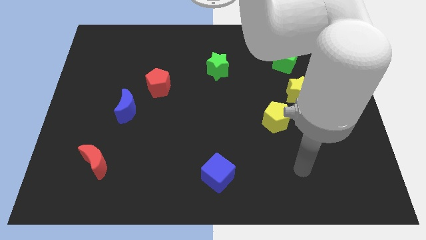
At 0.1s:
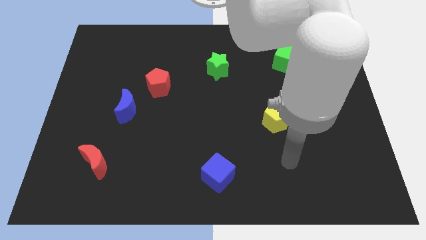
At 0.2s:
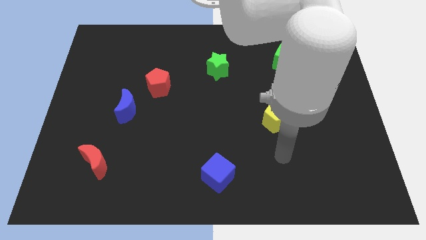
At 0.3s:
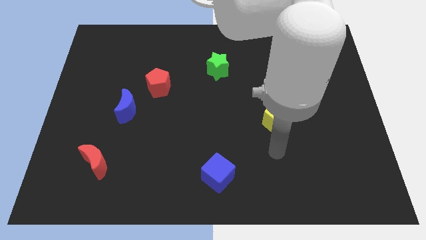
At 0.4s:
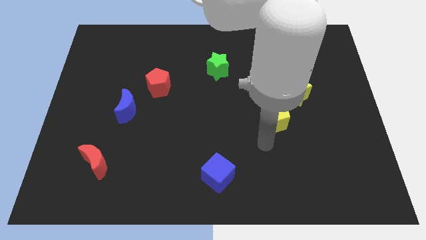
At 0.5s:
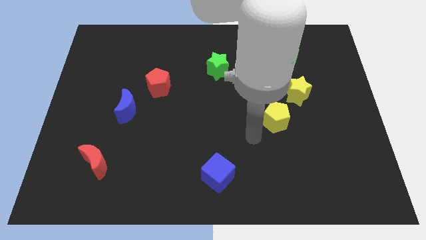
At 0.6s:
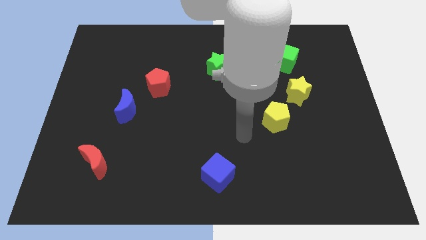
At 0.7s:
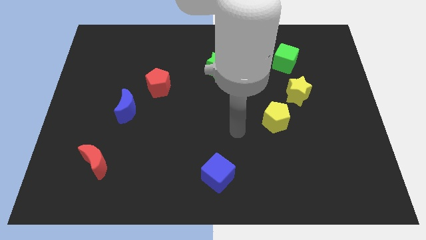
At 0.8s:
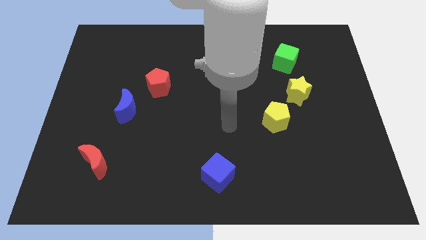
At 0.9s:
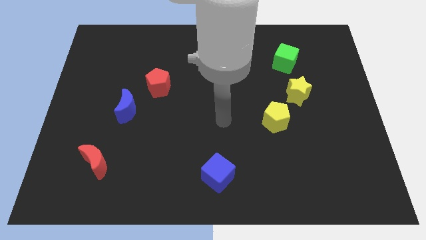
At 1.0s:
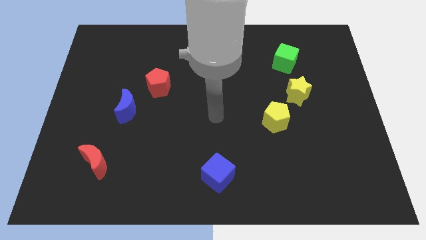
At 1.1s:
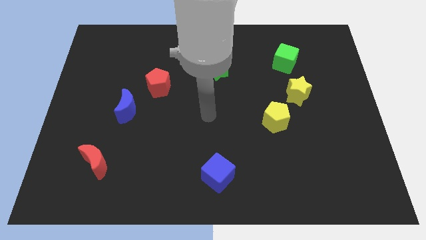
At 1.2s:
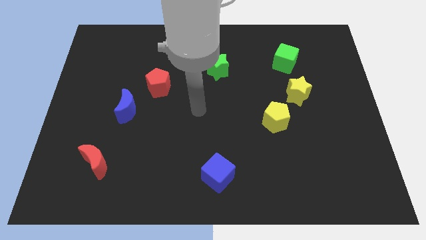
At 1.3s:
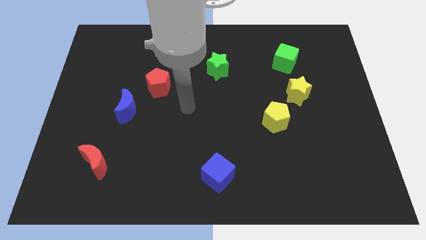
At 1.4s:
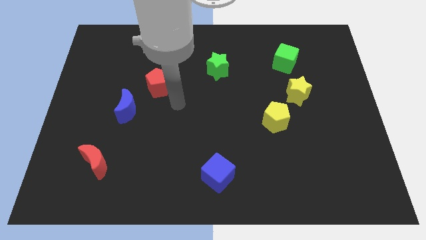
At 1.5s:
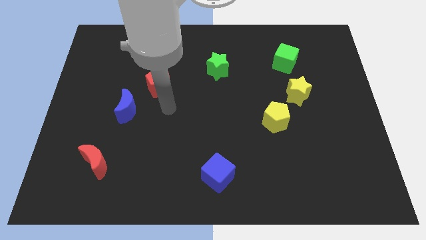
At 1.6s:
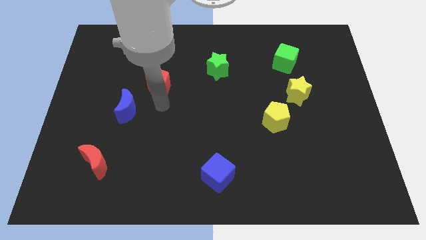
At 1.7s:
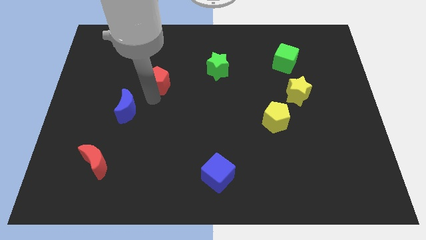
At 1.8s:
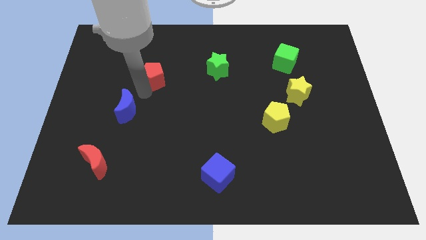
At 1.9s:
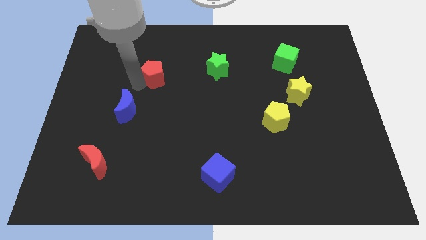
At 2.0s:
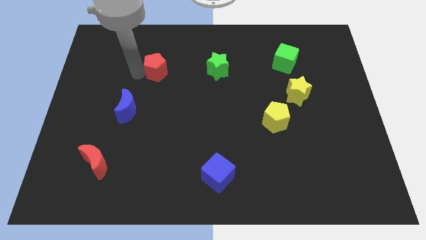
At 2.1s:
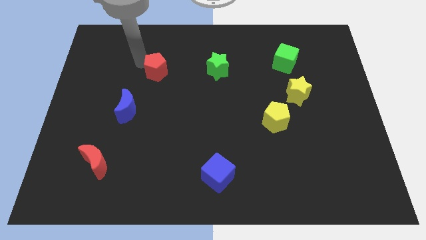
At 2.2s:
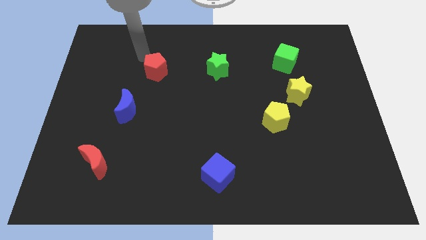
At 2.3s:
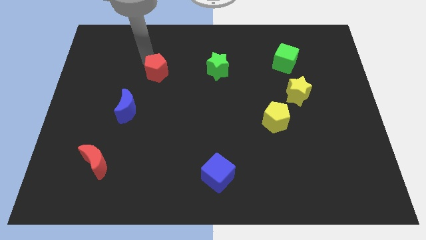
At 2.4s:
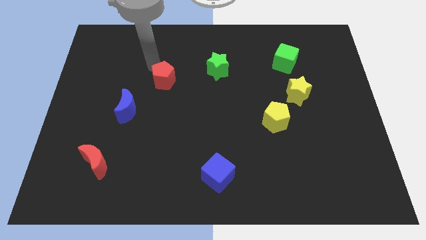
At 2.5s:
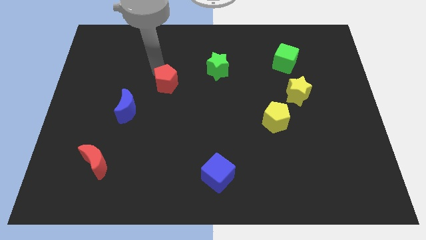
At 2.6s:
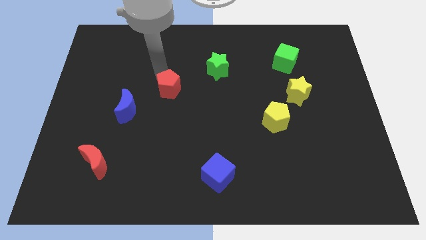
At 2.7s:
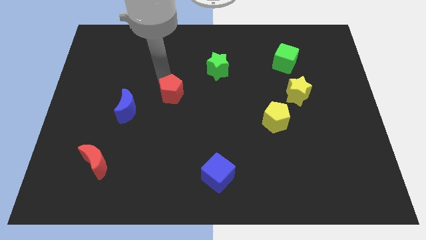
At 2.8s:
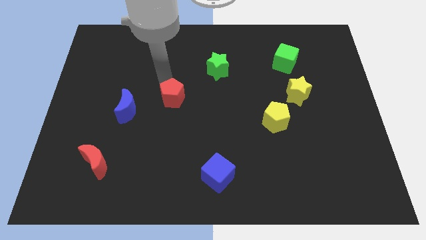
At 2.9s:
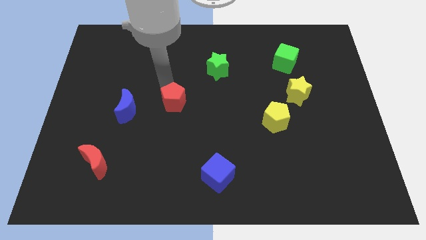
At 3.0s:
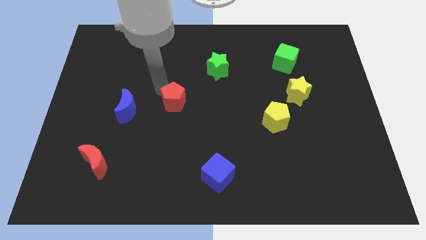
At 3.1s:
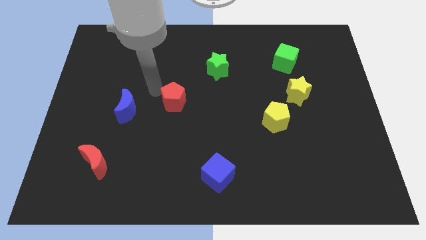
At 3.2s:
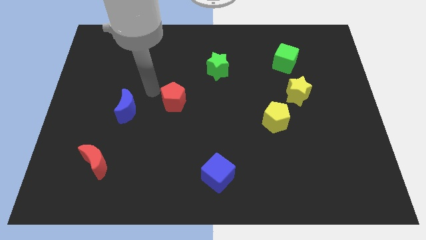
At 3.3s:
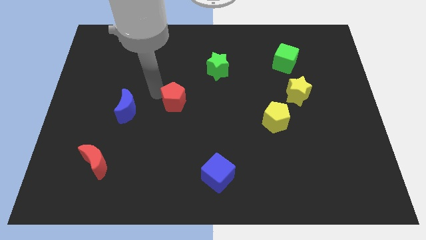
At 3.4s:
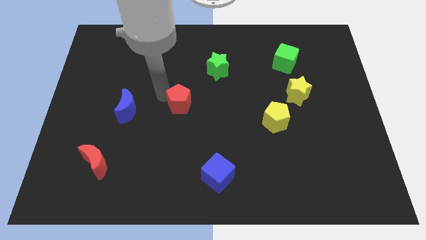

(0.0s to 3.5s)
slightly push the red pentagon diagonally downwards and right

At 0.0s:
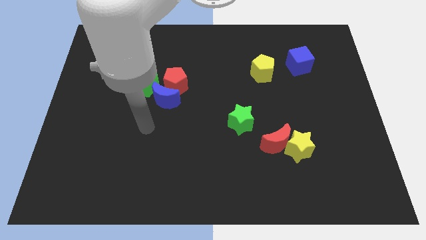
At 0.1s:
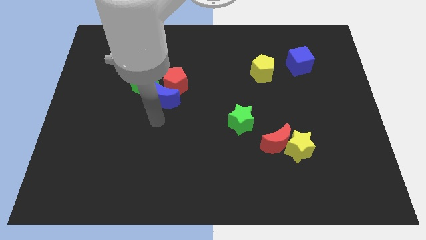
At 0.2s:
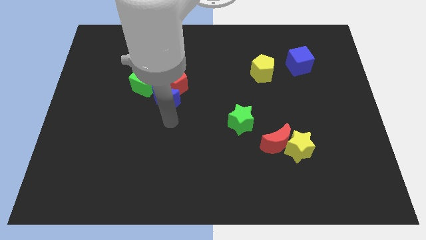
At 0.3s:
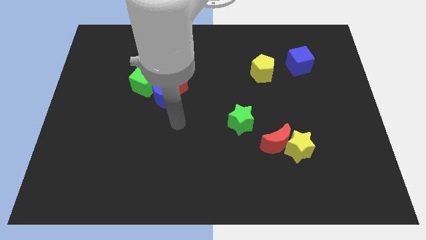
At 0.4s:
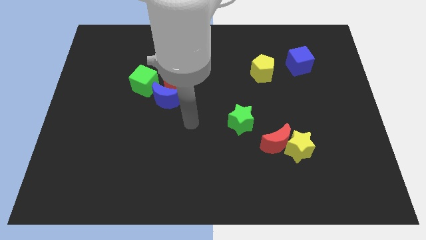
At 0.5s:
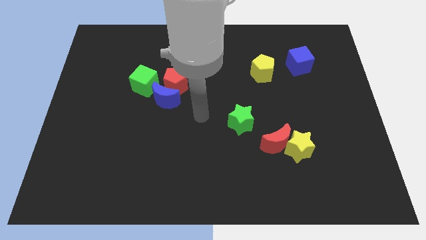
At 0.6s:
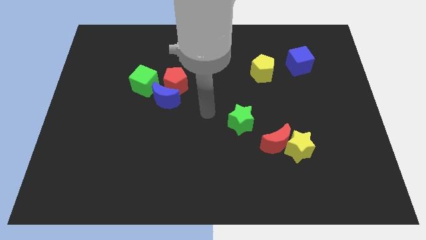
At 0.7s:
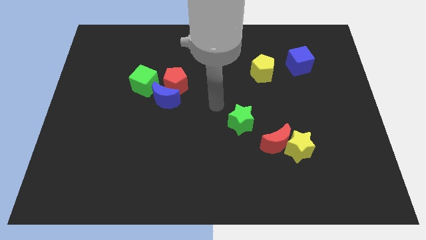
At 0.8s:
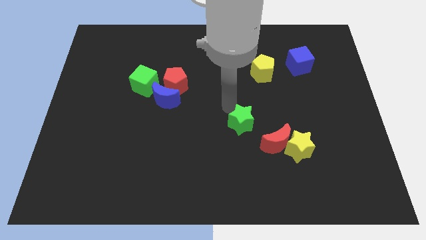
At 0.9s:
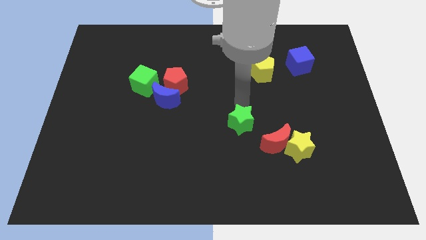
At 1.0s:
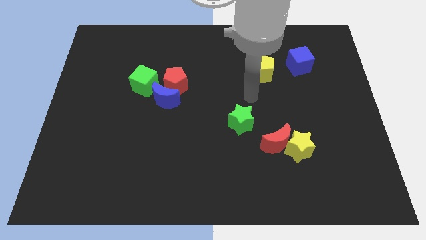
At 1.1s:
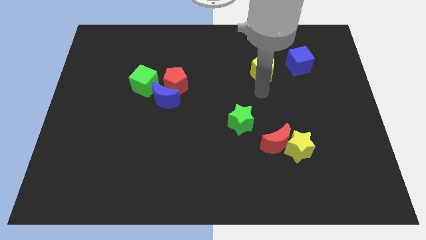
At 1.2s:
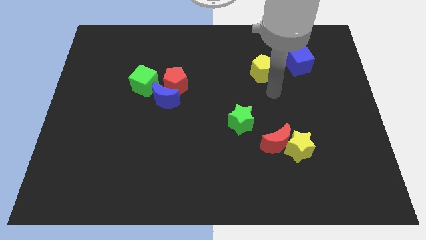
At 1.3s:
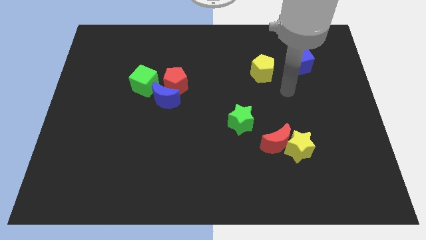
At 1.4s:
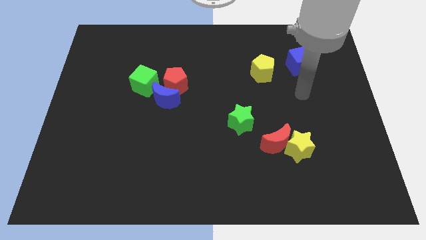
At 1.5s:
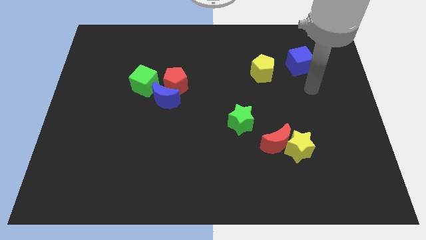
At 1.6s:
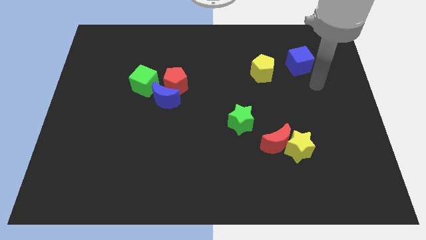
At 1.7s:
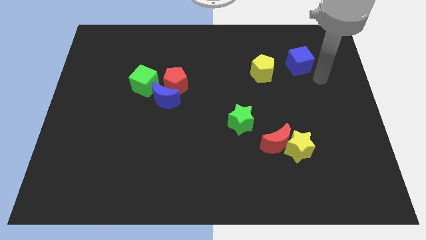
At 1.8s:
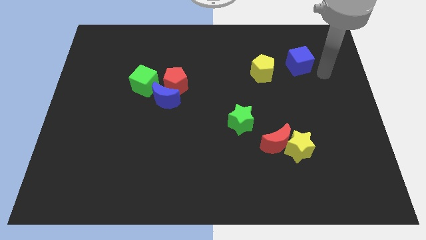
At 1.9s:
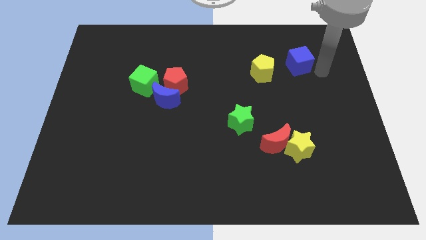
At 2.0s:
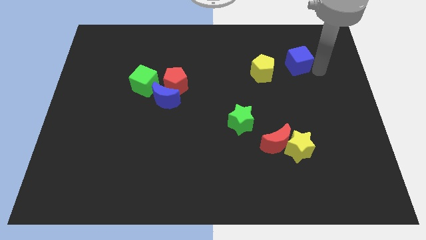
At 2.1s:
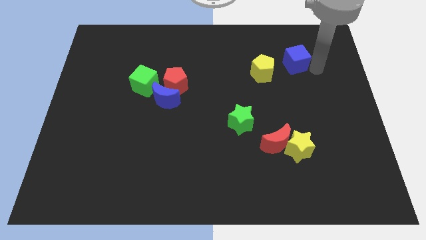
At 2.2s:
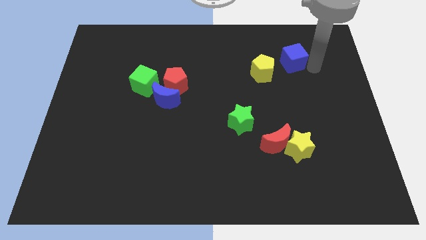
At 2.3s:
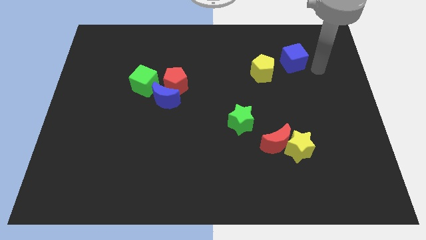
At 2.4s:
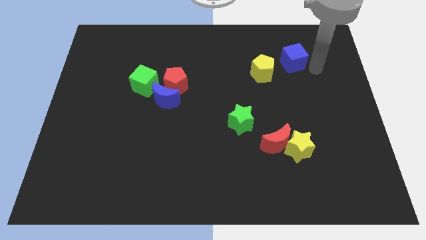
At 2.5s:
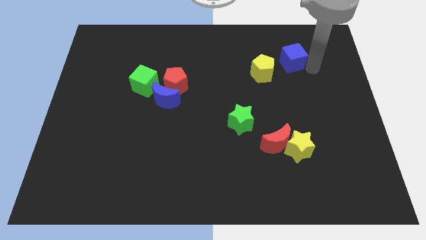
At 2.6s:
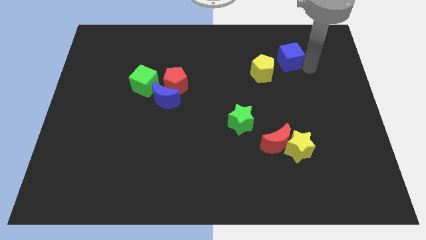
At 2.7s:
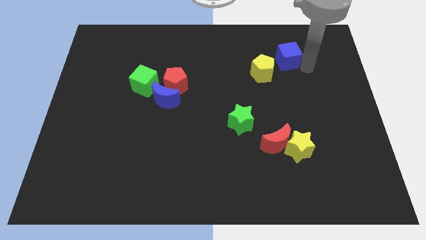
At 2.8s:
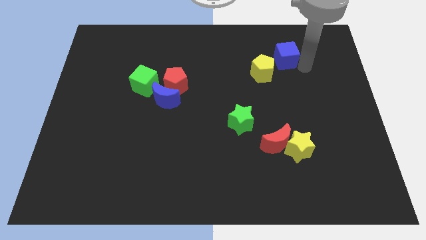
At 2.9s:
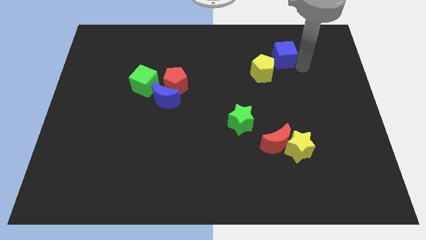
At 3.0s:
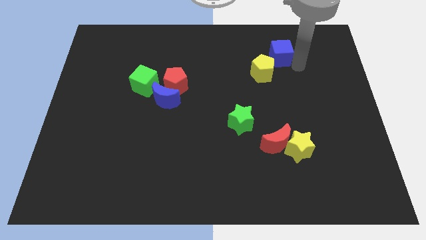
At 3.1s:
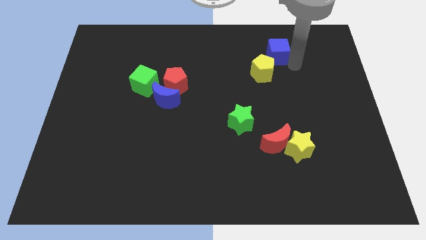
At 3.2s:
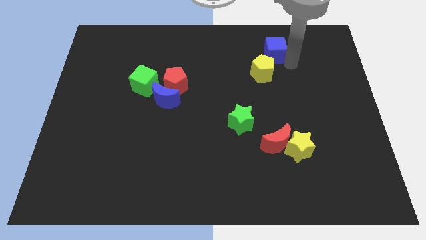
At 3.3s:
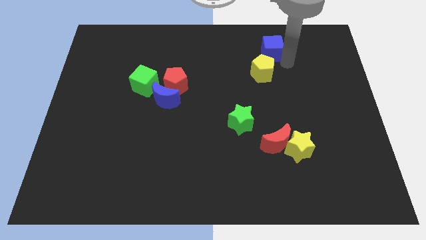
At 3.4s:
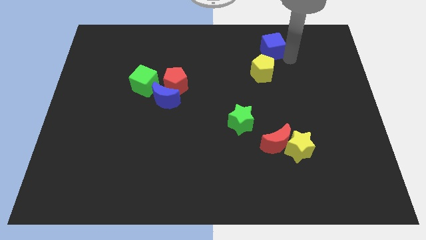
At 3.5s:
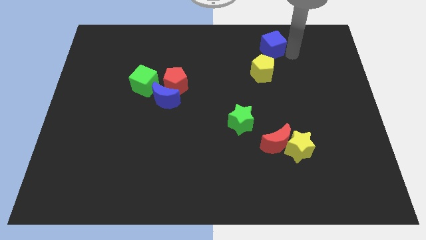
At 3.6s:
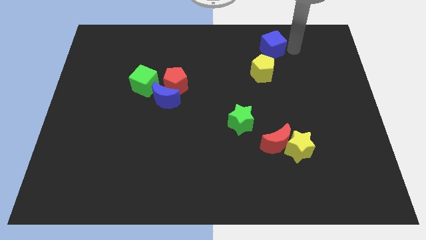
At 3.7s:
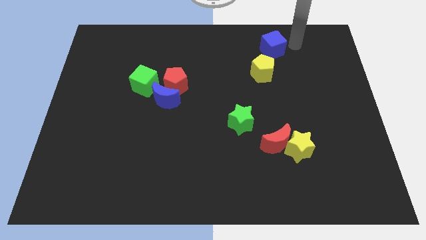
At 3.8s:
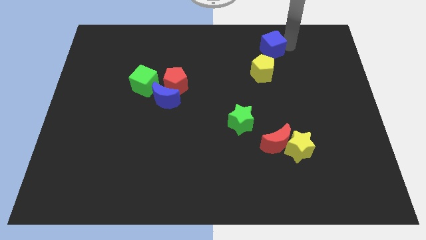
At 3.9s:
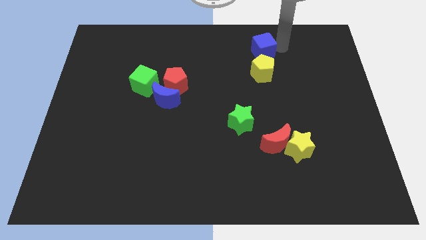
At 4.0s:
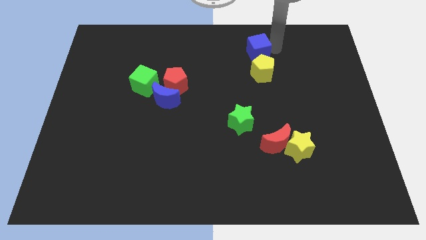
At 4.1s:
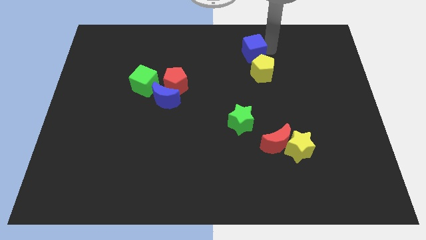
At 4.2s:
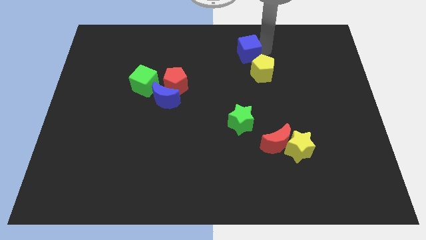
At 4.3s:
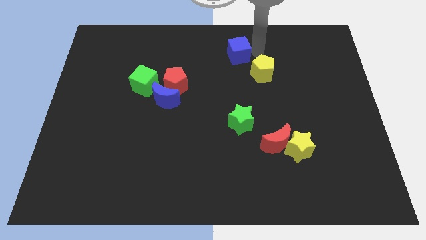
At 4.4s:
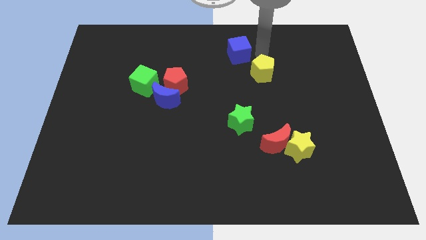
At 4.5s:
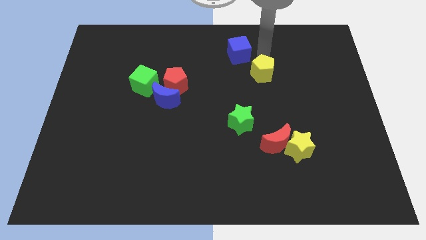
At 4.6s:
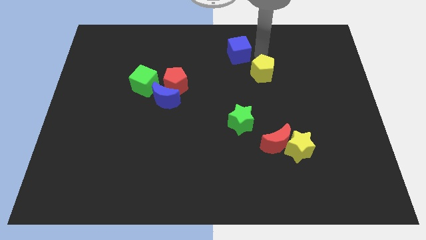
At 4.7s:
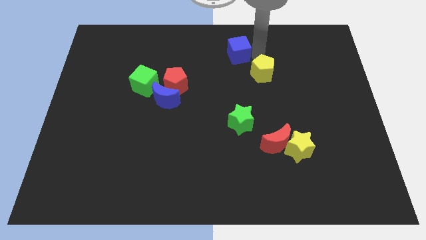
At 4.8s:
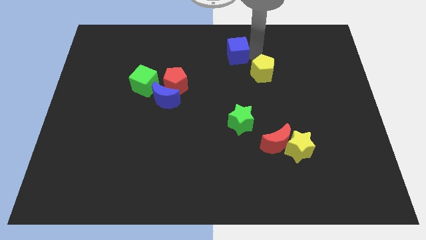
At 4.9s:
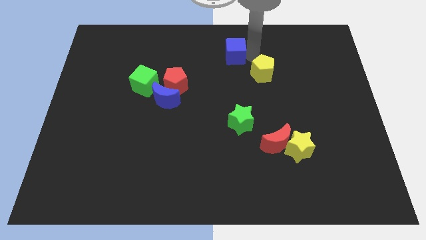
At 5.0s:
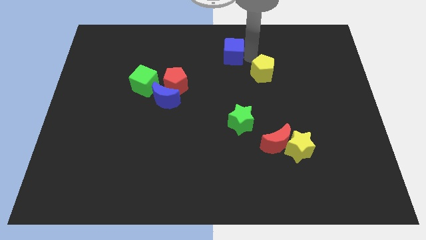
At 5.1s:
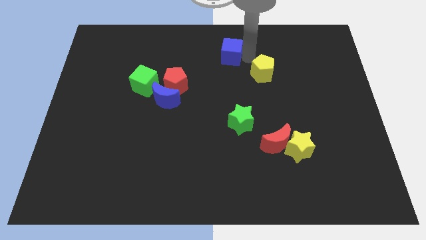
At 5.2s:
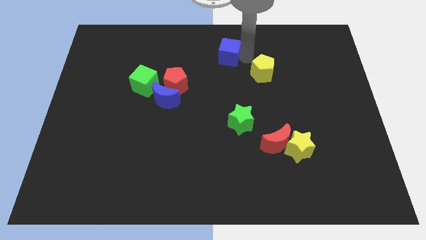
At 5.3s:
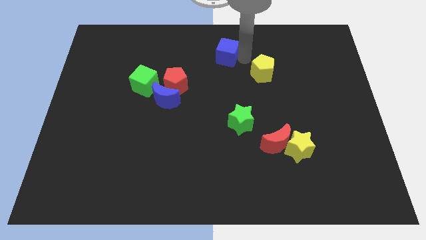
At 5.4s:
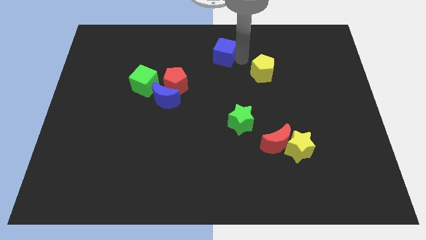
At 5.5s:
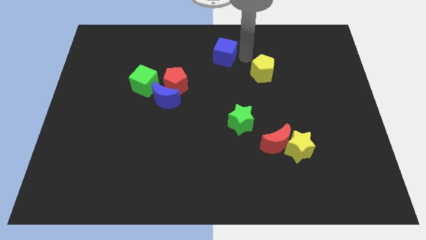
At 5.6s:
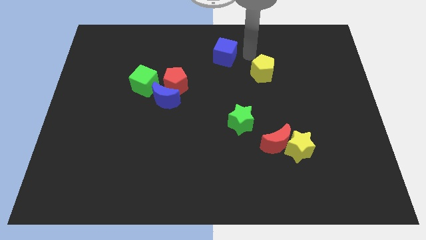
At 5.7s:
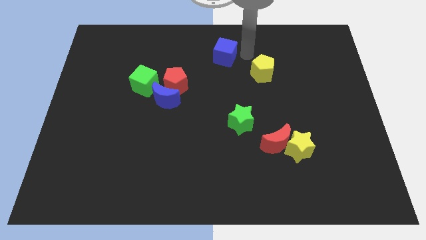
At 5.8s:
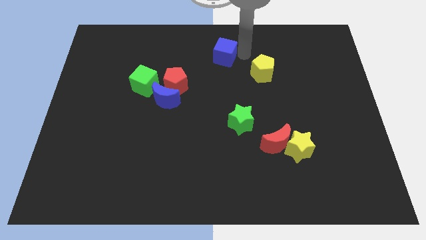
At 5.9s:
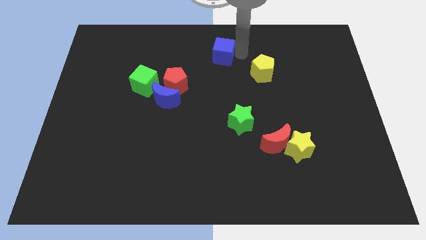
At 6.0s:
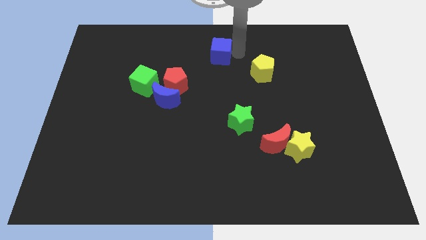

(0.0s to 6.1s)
push the blue cube to the left
